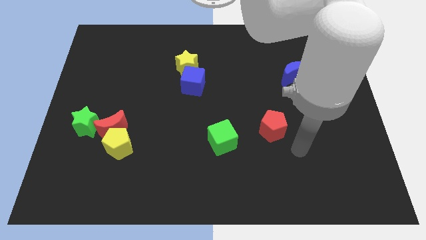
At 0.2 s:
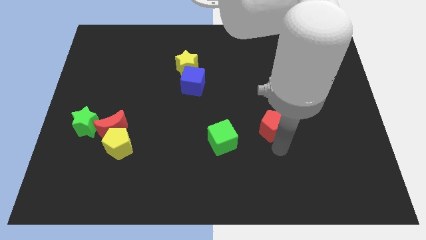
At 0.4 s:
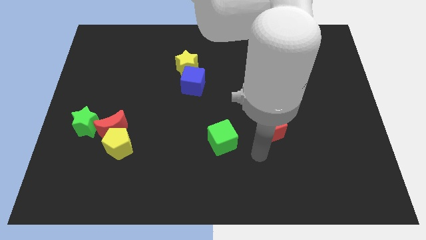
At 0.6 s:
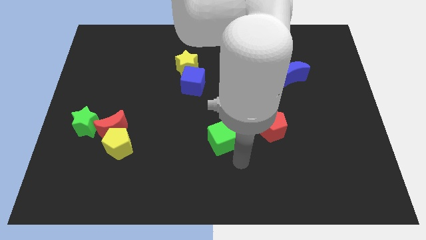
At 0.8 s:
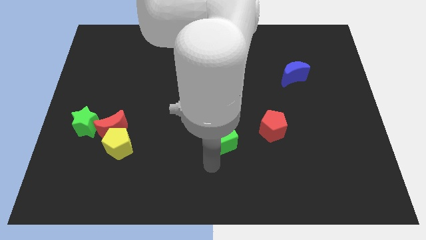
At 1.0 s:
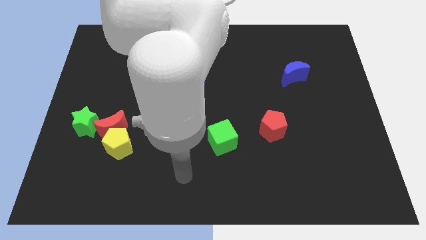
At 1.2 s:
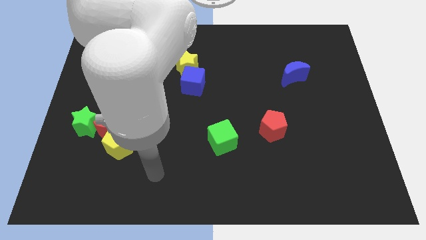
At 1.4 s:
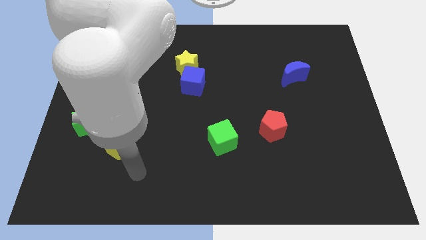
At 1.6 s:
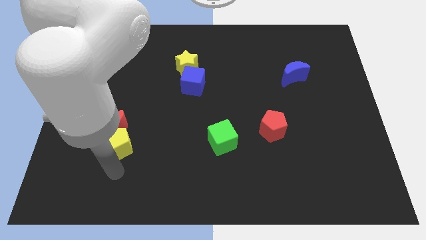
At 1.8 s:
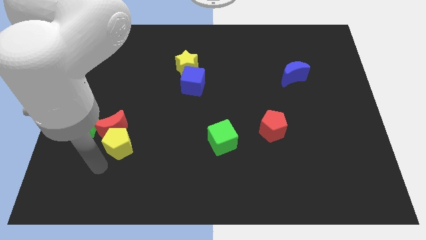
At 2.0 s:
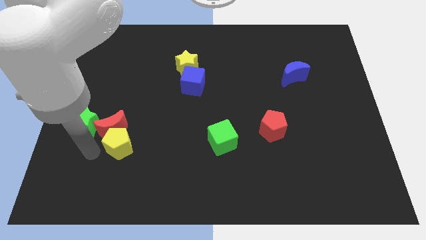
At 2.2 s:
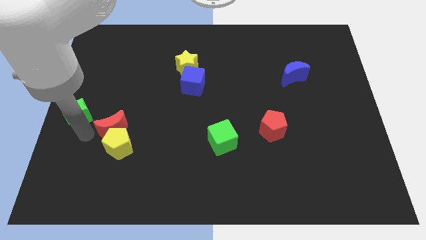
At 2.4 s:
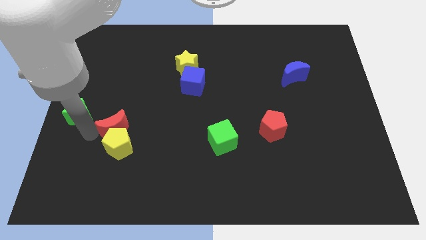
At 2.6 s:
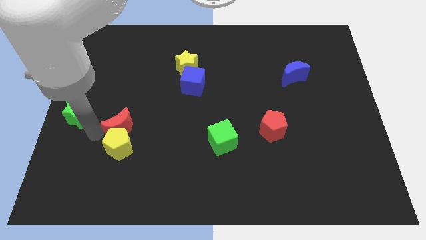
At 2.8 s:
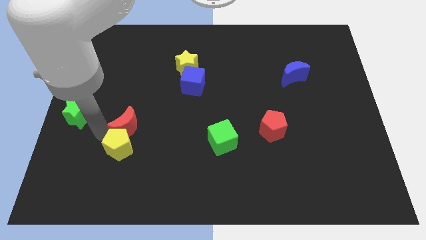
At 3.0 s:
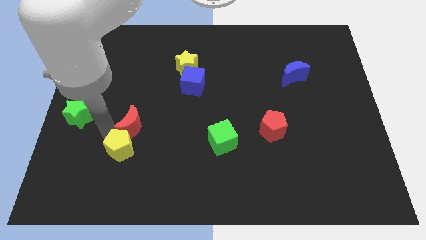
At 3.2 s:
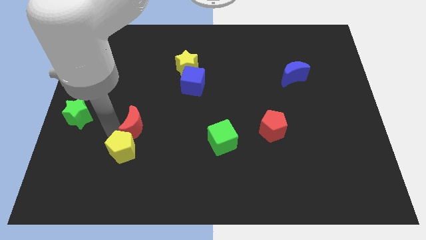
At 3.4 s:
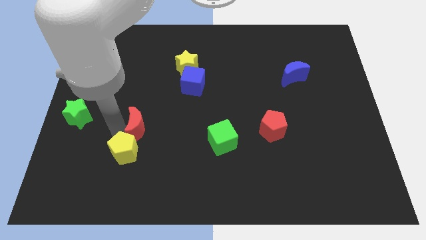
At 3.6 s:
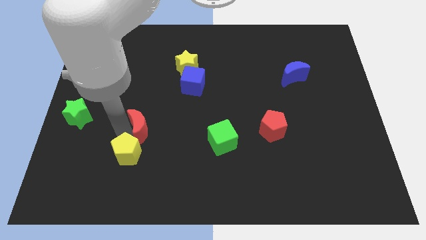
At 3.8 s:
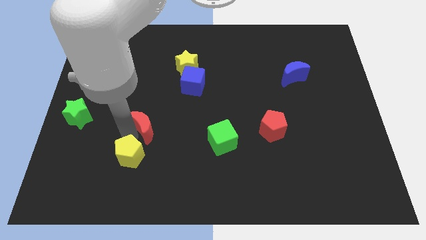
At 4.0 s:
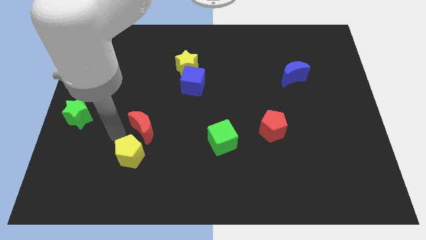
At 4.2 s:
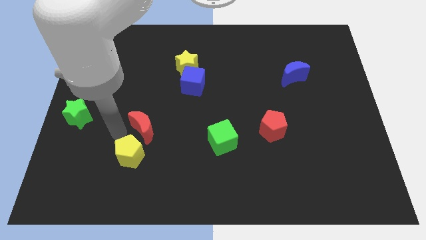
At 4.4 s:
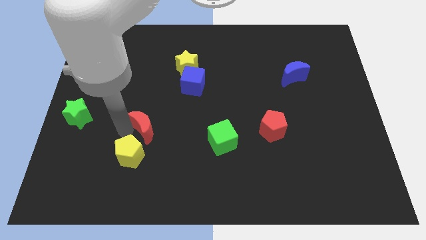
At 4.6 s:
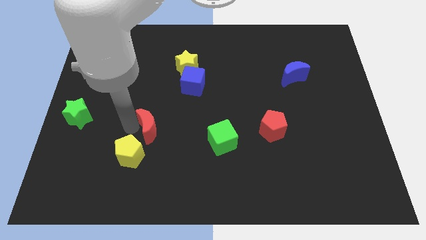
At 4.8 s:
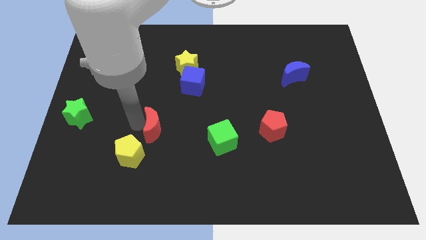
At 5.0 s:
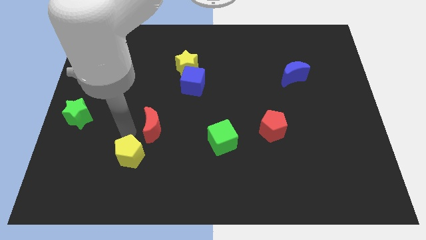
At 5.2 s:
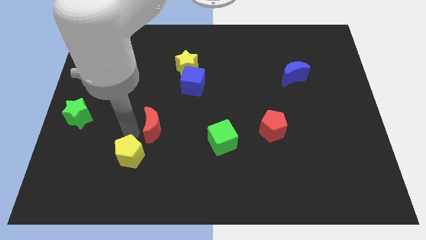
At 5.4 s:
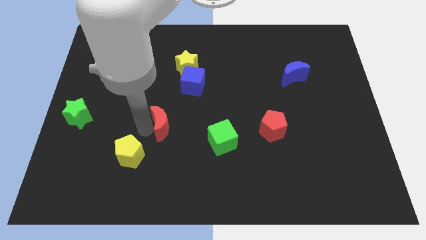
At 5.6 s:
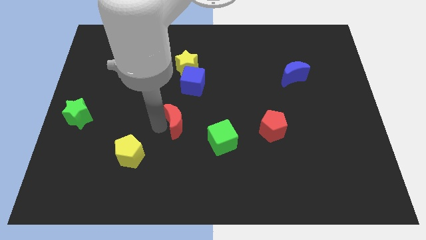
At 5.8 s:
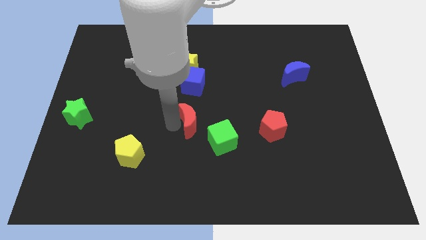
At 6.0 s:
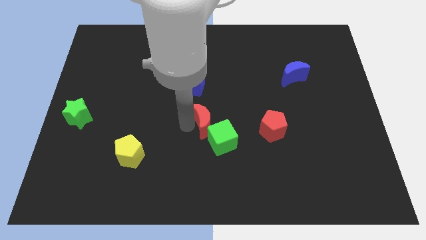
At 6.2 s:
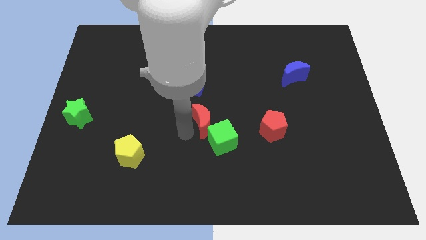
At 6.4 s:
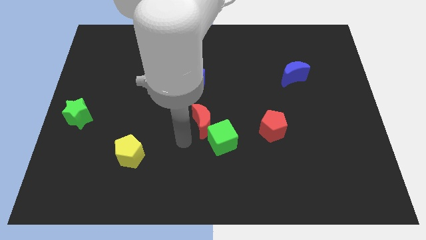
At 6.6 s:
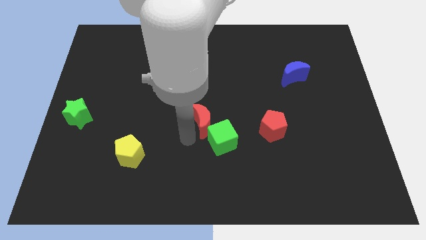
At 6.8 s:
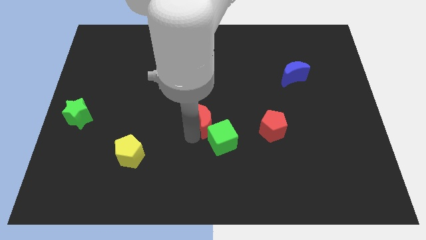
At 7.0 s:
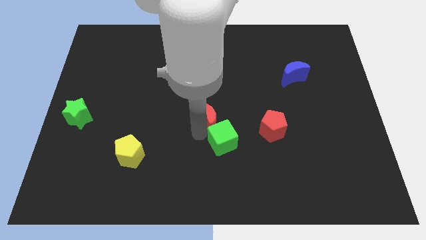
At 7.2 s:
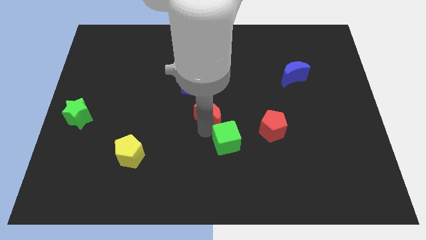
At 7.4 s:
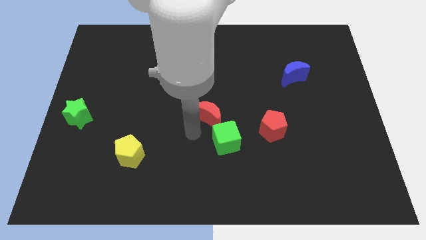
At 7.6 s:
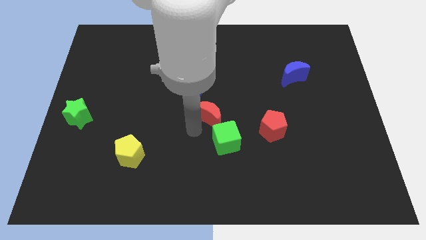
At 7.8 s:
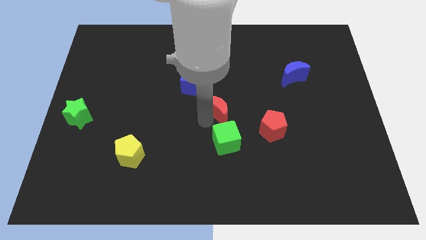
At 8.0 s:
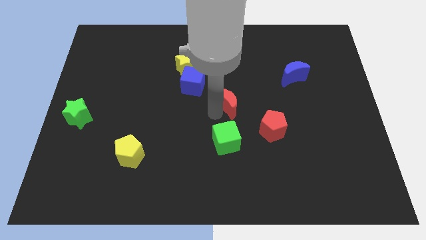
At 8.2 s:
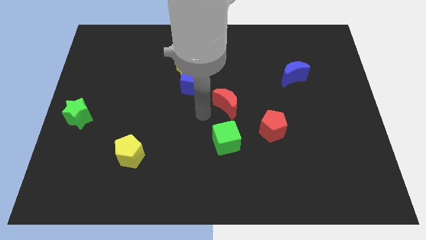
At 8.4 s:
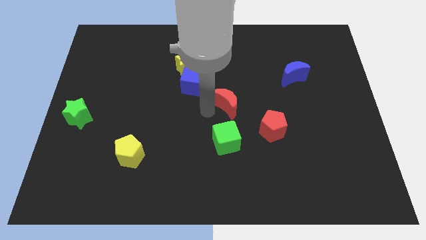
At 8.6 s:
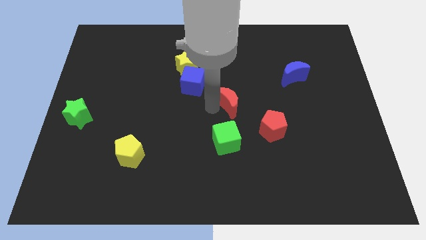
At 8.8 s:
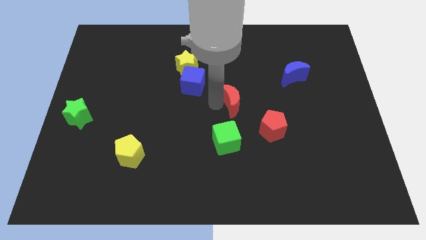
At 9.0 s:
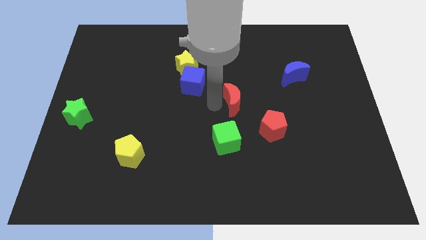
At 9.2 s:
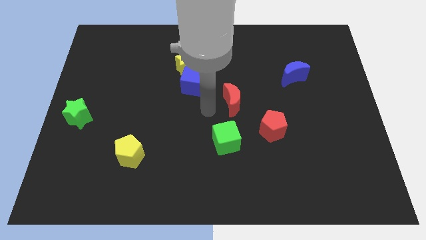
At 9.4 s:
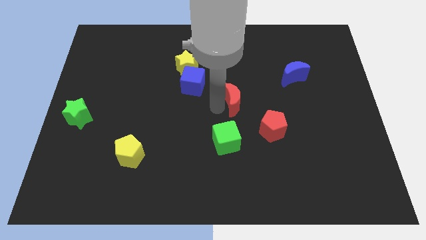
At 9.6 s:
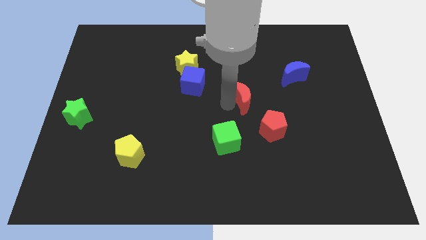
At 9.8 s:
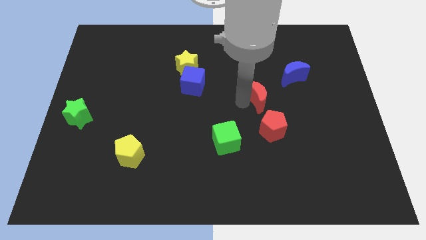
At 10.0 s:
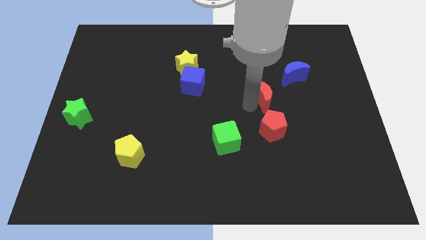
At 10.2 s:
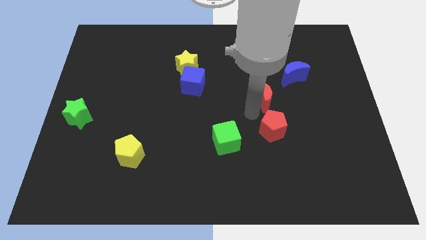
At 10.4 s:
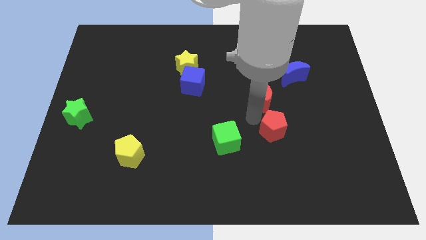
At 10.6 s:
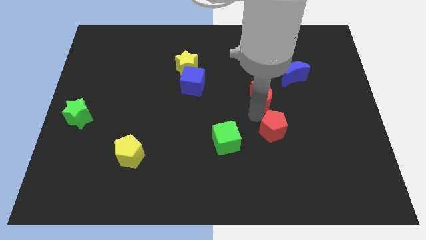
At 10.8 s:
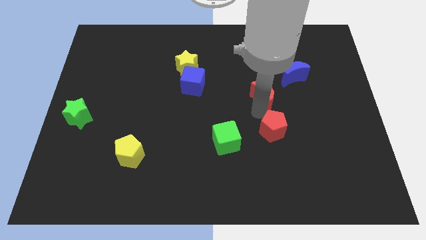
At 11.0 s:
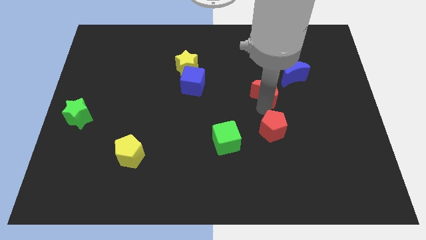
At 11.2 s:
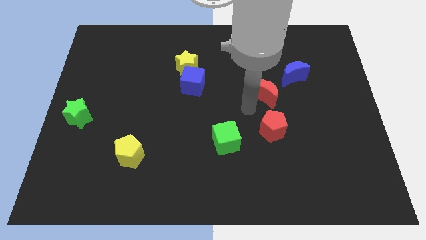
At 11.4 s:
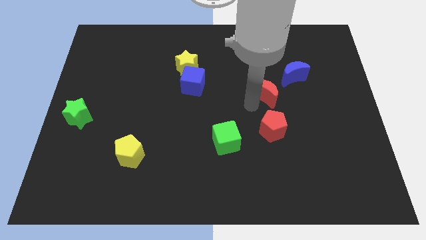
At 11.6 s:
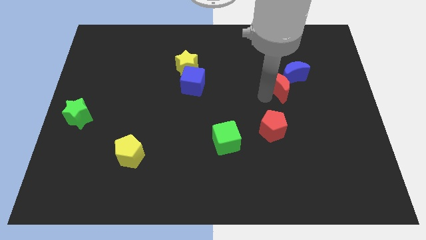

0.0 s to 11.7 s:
slide the red moon towards the blue moon

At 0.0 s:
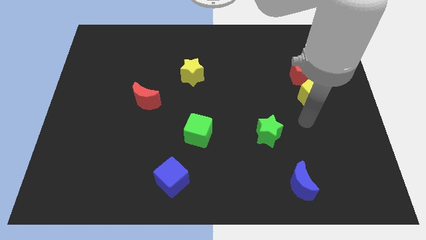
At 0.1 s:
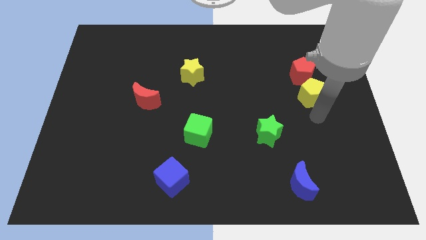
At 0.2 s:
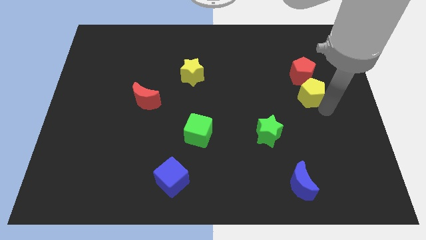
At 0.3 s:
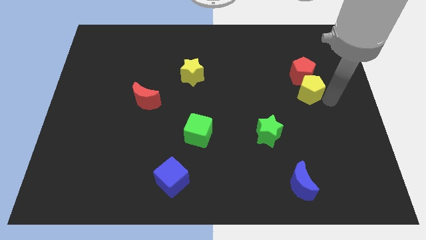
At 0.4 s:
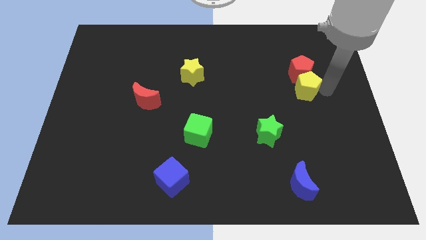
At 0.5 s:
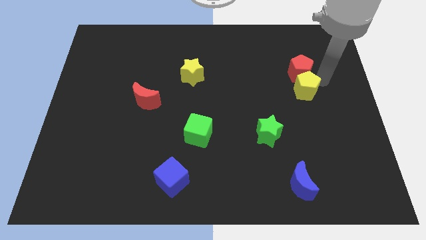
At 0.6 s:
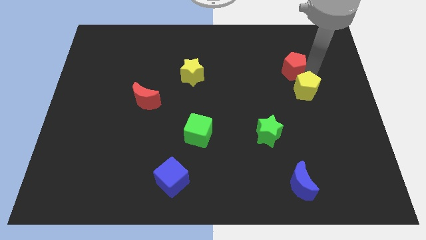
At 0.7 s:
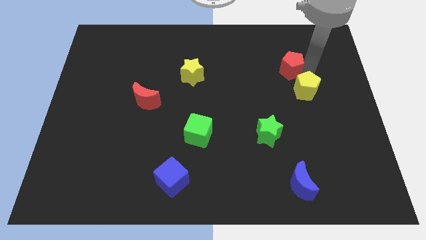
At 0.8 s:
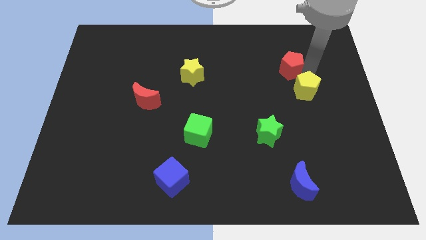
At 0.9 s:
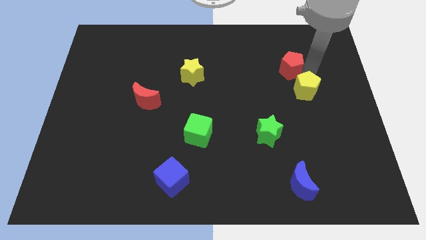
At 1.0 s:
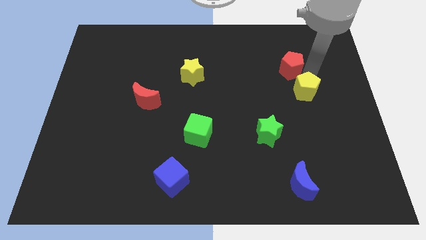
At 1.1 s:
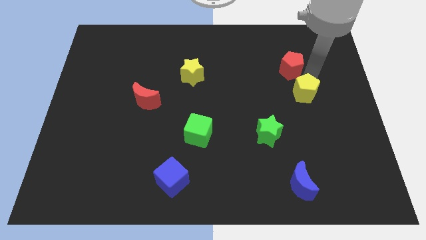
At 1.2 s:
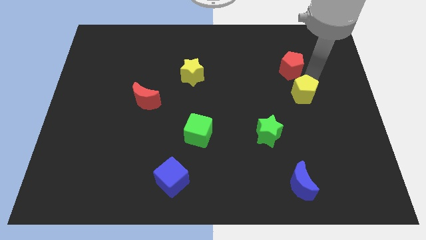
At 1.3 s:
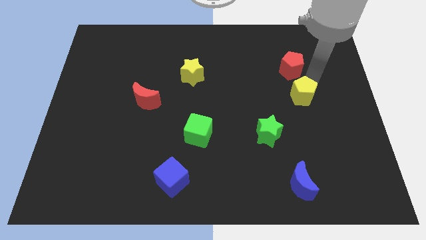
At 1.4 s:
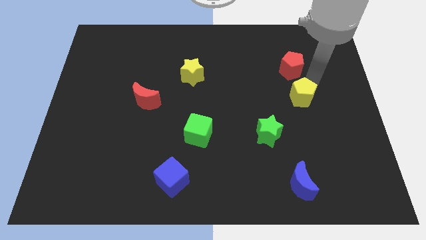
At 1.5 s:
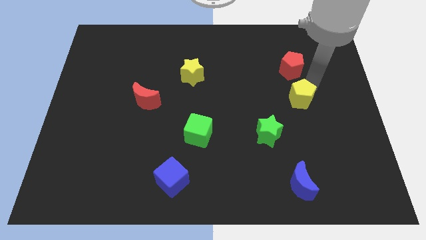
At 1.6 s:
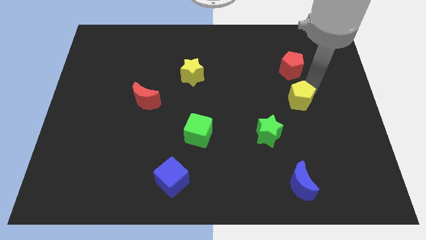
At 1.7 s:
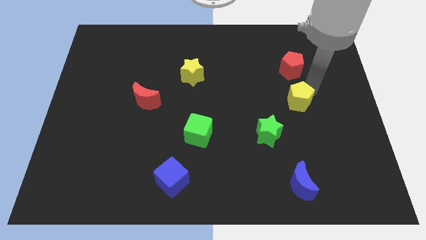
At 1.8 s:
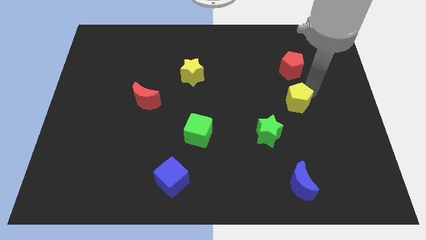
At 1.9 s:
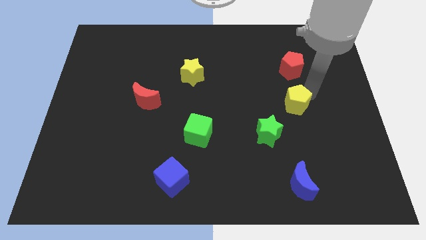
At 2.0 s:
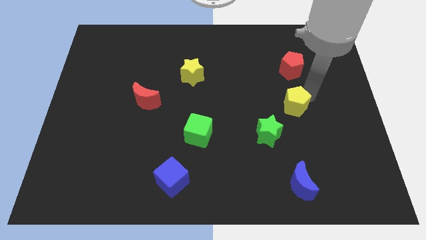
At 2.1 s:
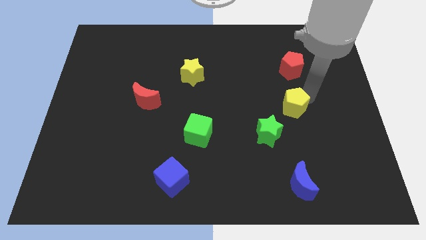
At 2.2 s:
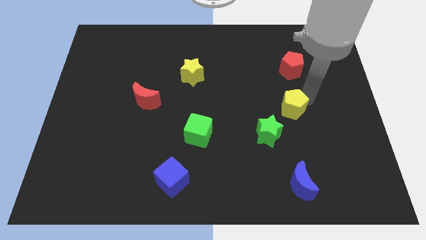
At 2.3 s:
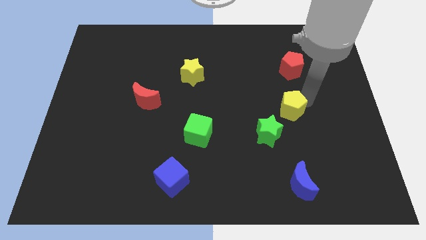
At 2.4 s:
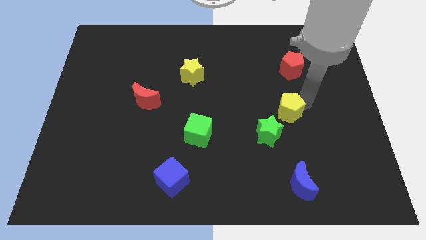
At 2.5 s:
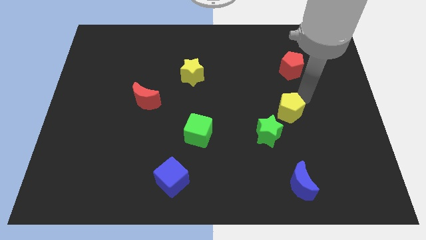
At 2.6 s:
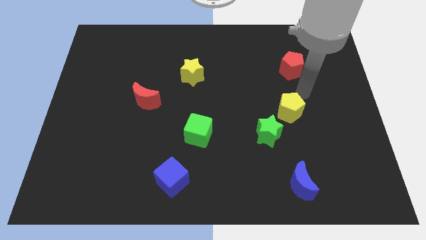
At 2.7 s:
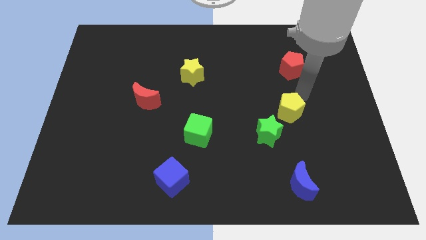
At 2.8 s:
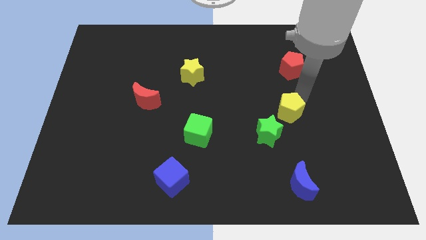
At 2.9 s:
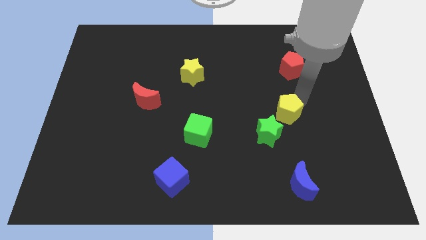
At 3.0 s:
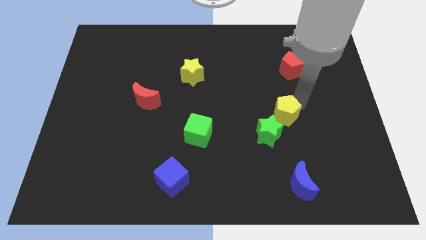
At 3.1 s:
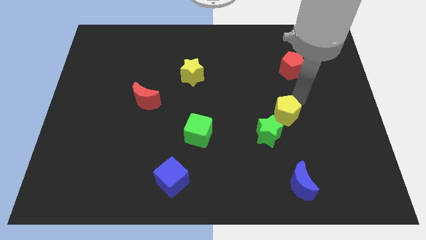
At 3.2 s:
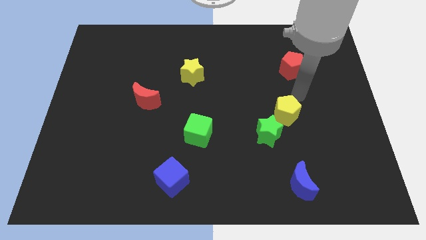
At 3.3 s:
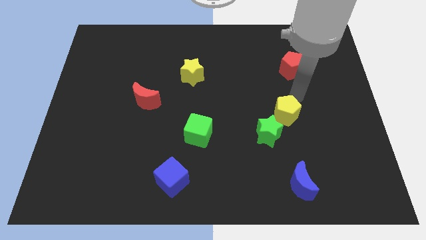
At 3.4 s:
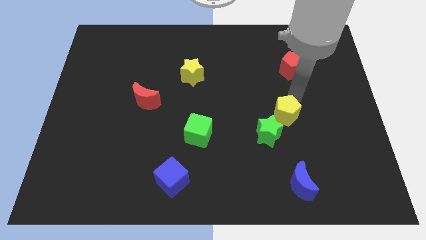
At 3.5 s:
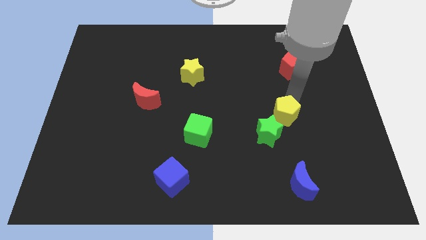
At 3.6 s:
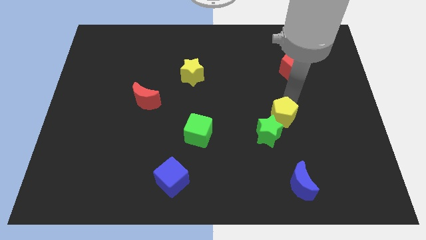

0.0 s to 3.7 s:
move the yellow pentagon to the green star
